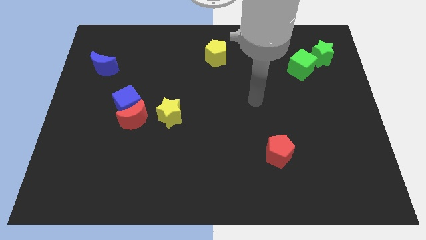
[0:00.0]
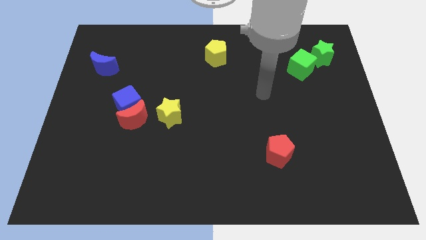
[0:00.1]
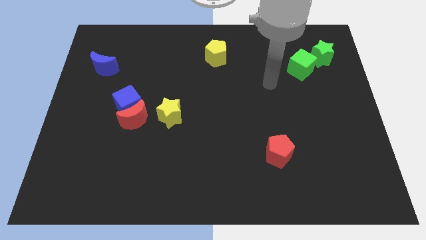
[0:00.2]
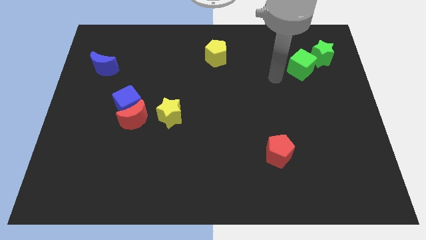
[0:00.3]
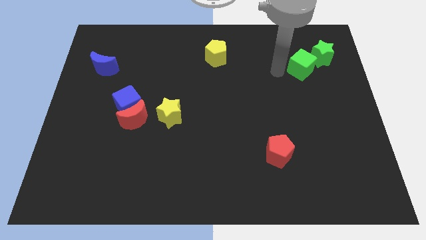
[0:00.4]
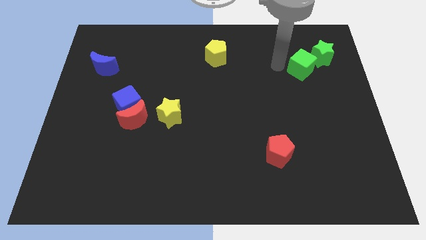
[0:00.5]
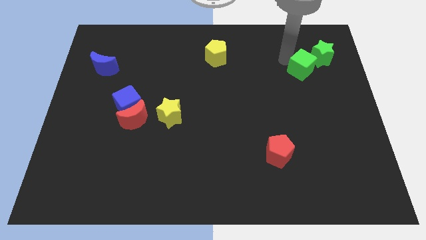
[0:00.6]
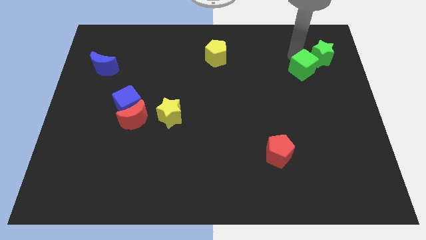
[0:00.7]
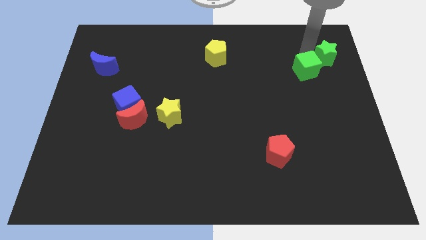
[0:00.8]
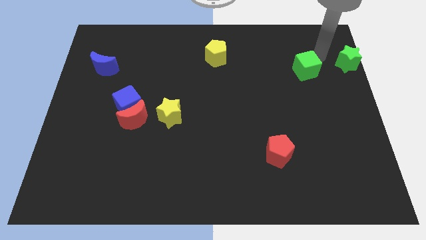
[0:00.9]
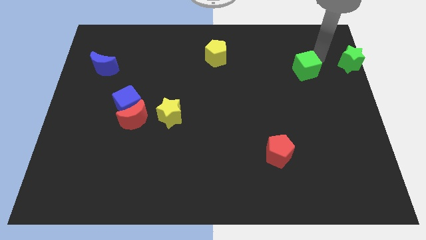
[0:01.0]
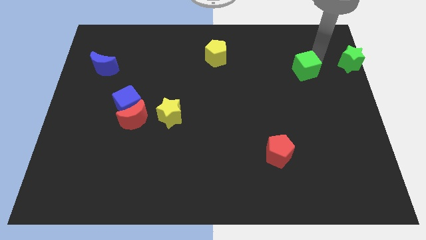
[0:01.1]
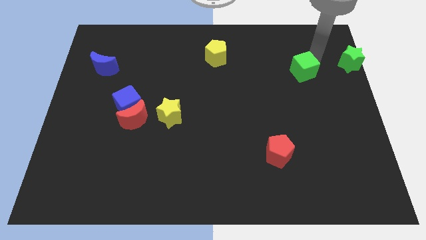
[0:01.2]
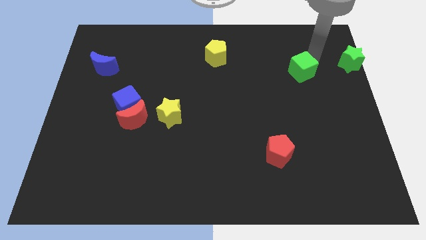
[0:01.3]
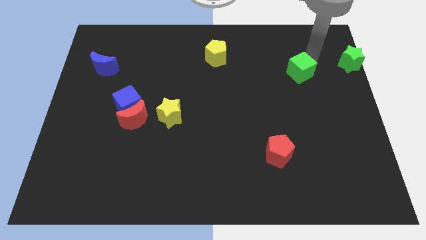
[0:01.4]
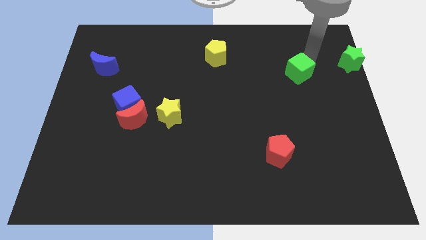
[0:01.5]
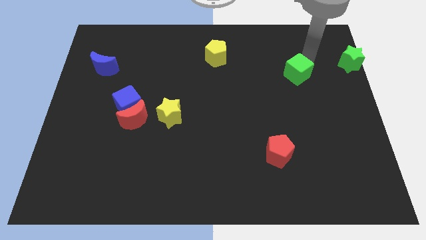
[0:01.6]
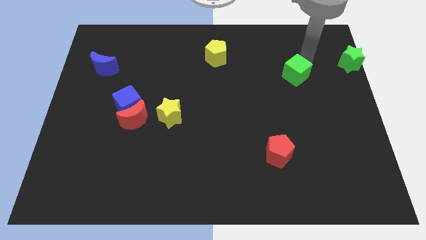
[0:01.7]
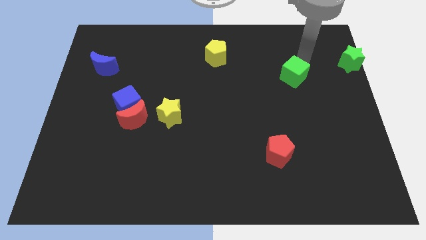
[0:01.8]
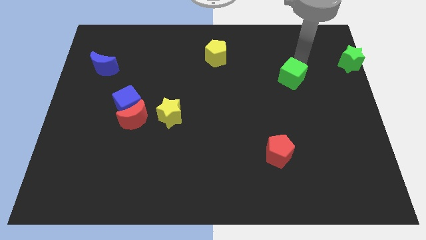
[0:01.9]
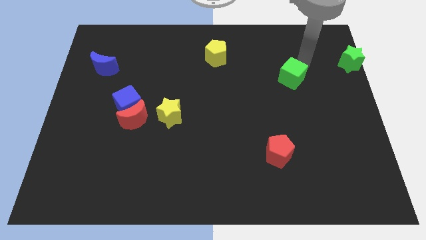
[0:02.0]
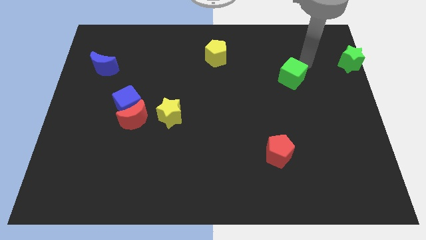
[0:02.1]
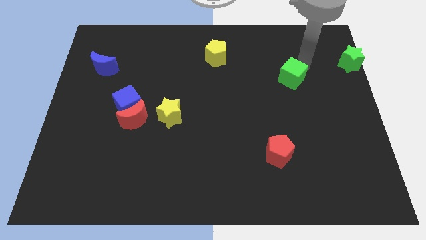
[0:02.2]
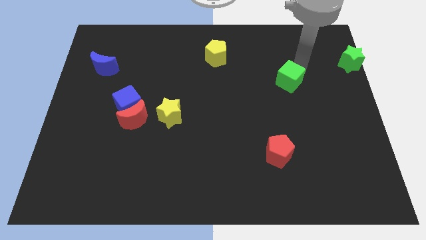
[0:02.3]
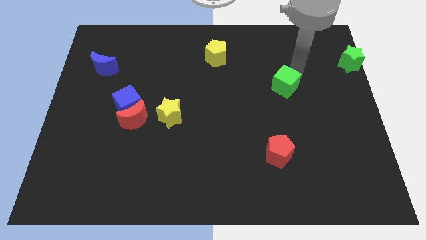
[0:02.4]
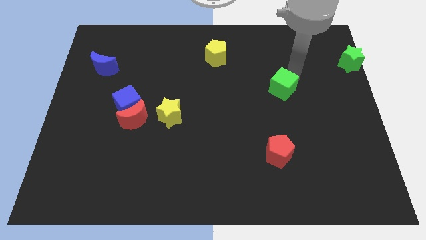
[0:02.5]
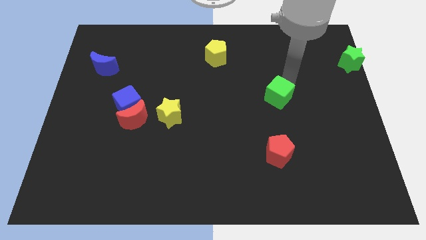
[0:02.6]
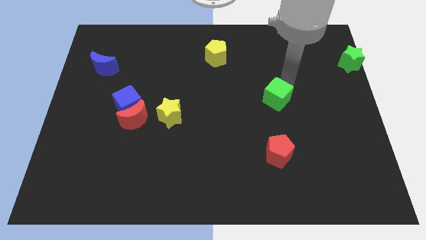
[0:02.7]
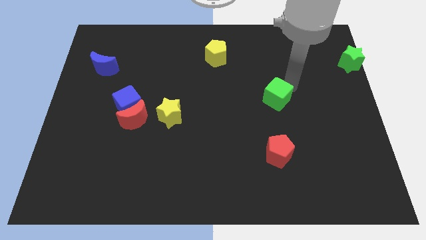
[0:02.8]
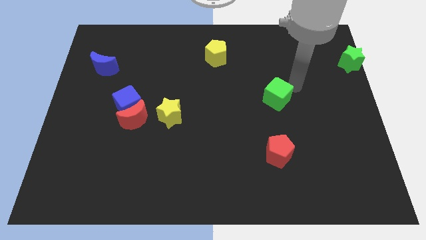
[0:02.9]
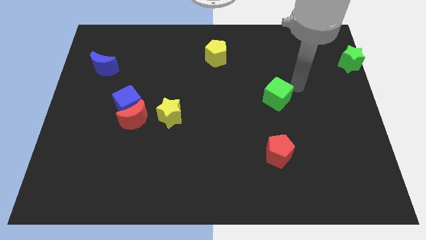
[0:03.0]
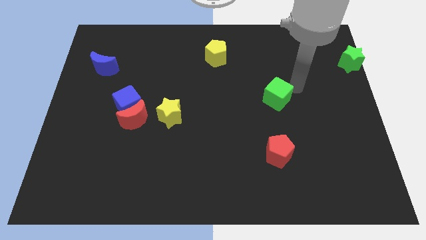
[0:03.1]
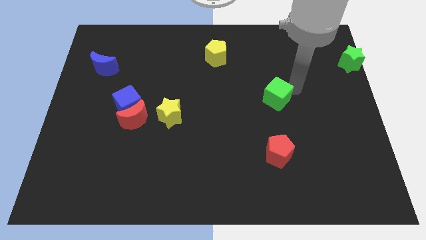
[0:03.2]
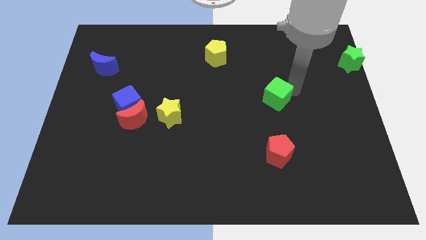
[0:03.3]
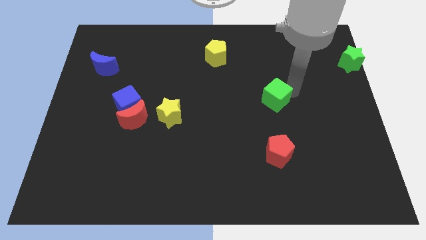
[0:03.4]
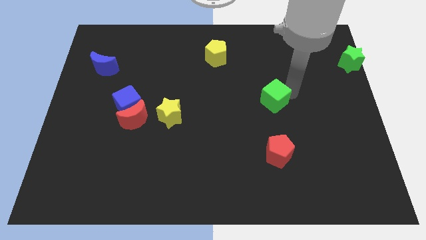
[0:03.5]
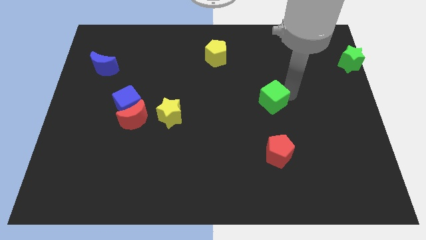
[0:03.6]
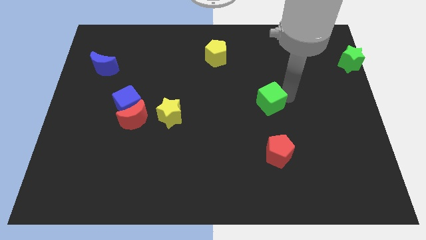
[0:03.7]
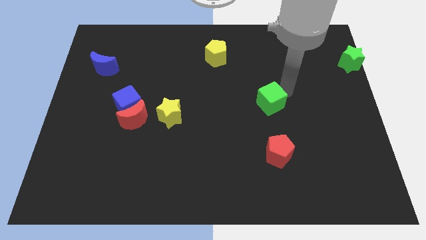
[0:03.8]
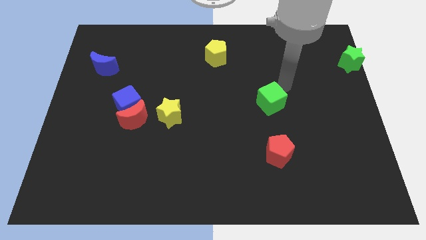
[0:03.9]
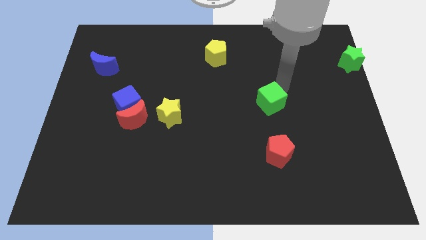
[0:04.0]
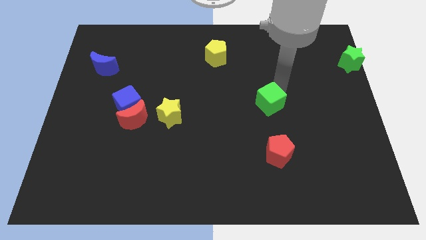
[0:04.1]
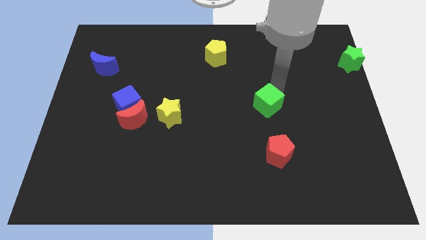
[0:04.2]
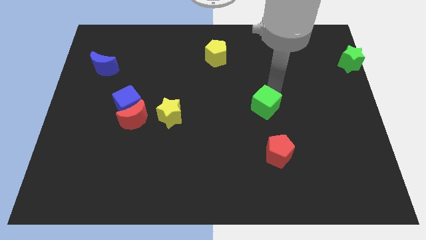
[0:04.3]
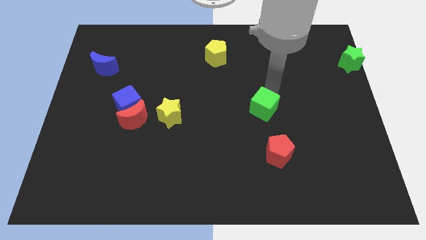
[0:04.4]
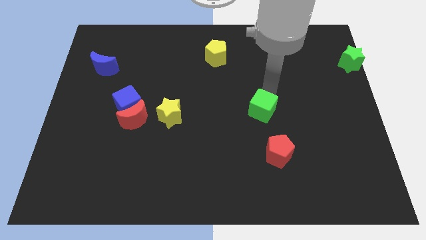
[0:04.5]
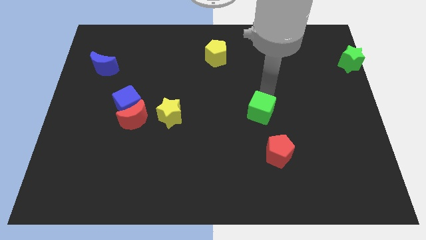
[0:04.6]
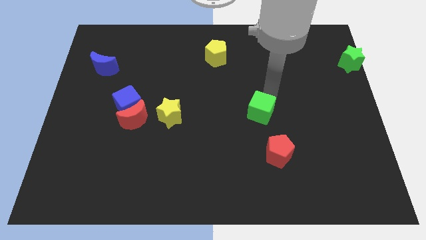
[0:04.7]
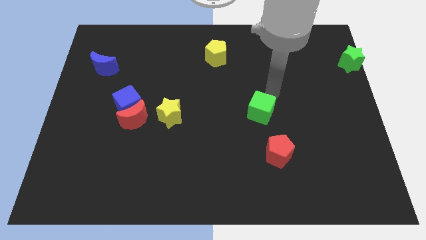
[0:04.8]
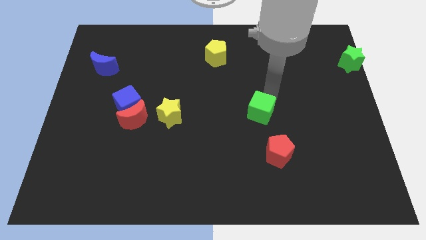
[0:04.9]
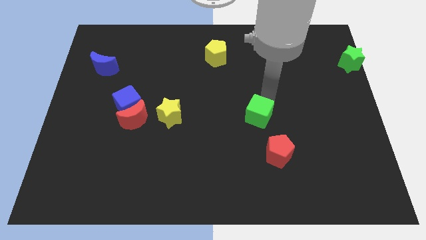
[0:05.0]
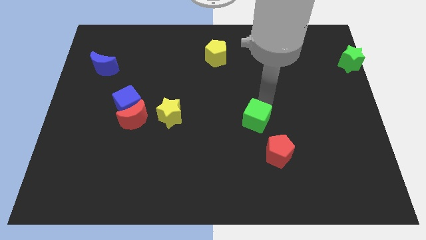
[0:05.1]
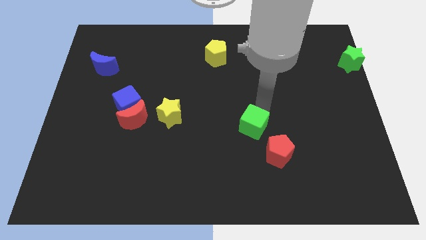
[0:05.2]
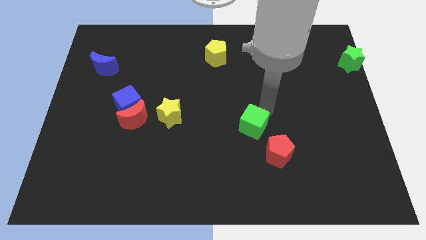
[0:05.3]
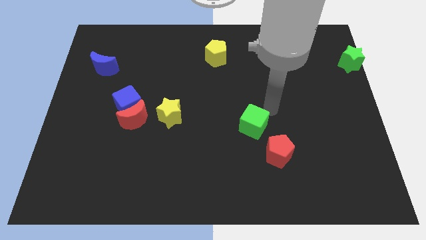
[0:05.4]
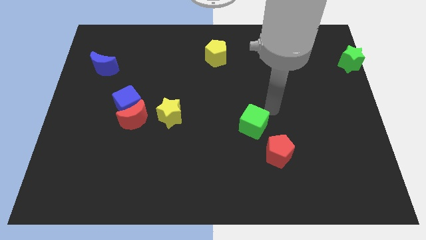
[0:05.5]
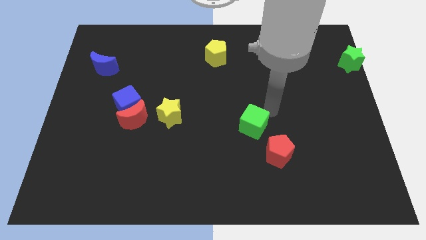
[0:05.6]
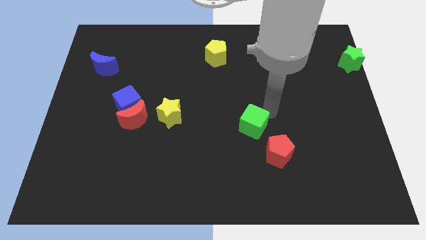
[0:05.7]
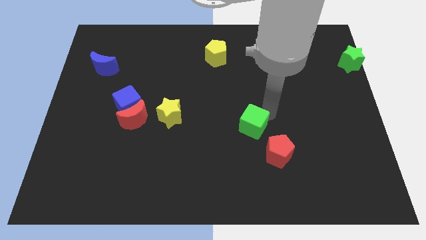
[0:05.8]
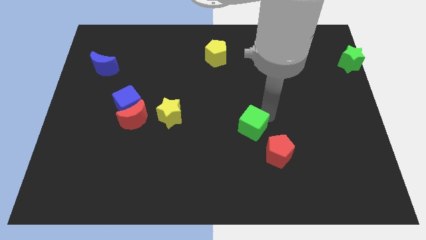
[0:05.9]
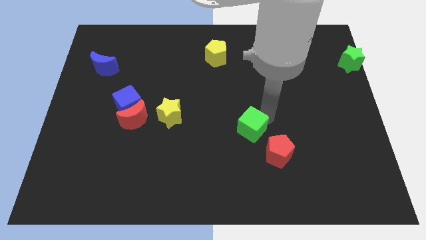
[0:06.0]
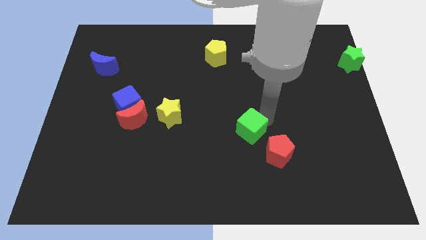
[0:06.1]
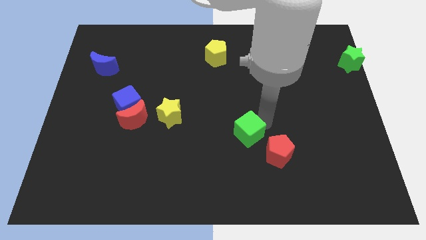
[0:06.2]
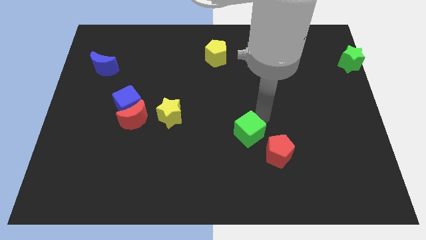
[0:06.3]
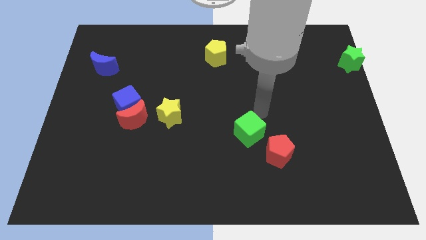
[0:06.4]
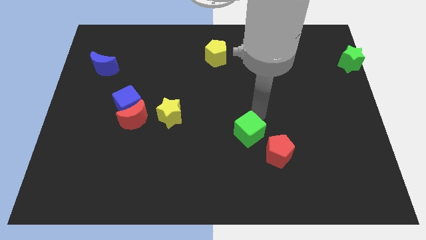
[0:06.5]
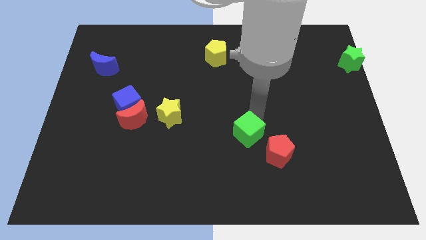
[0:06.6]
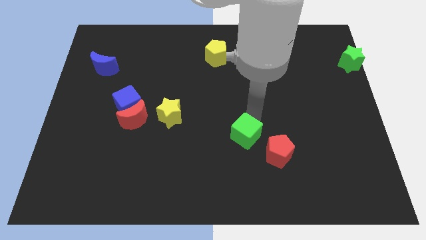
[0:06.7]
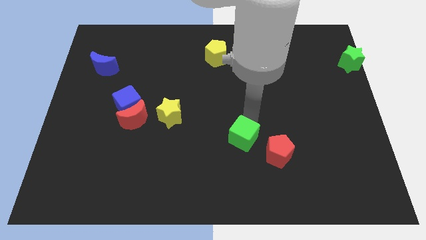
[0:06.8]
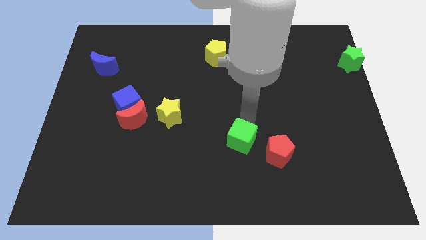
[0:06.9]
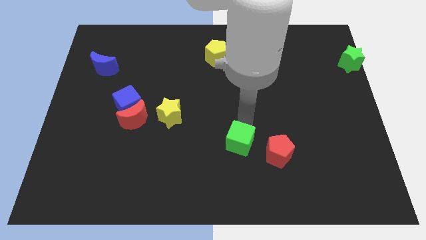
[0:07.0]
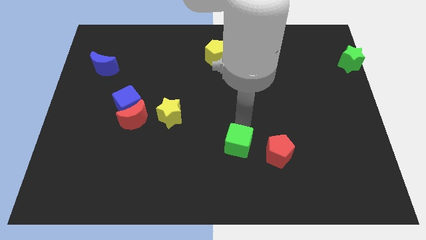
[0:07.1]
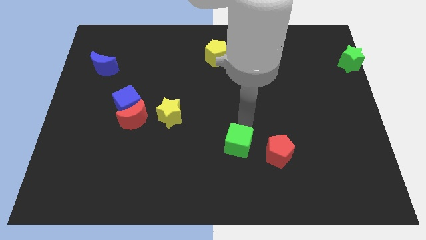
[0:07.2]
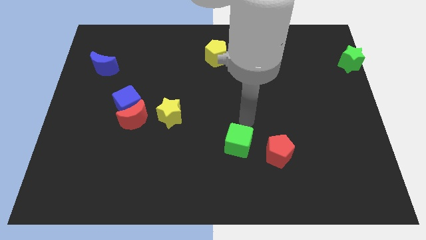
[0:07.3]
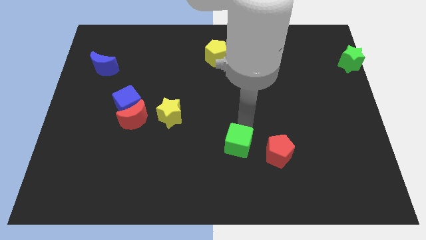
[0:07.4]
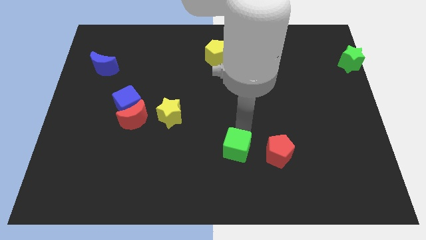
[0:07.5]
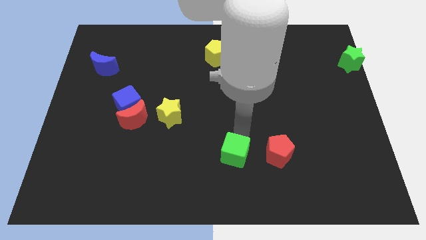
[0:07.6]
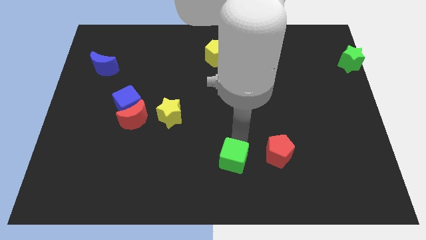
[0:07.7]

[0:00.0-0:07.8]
push the green cube to the bottom
